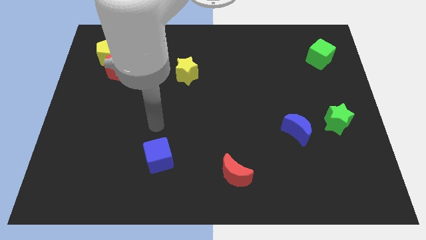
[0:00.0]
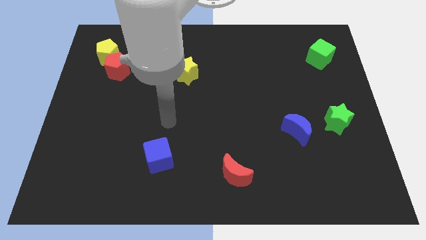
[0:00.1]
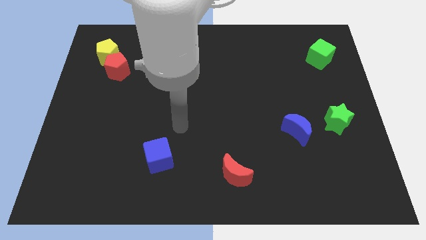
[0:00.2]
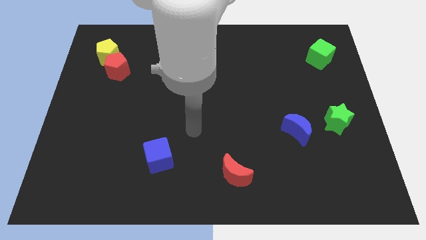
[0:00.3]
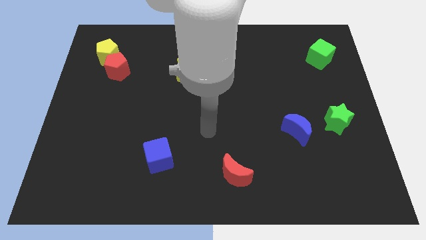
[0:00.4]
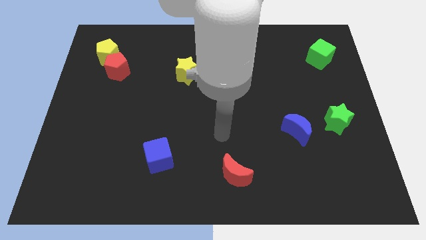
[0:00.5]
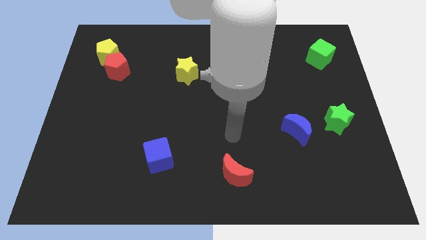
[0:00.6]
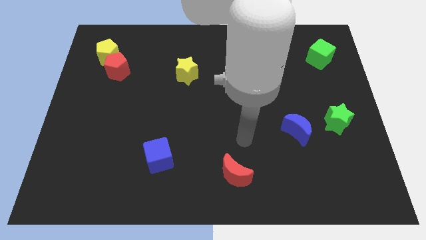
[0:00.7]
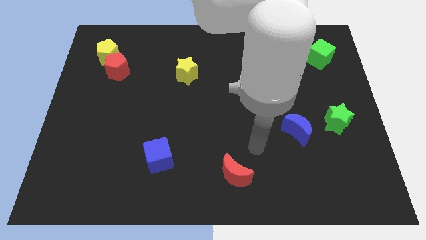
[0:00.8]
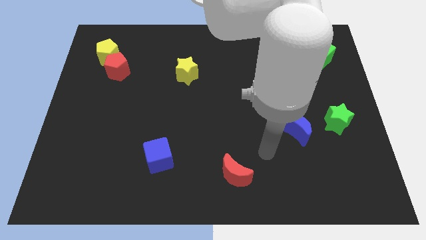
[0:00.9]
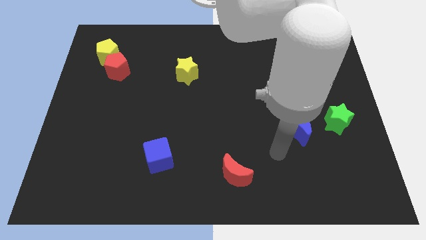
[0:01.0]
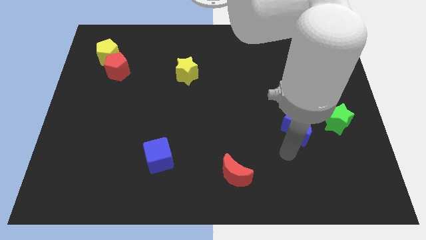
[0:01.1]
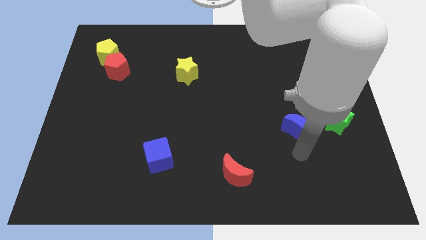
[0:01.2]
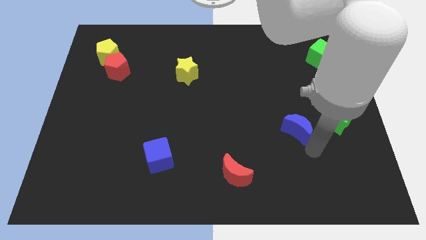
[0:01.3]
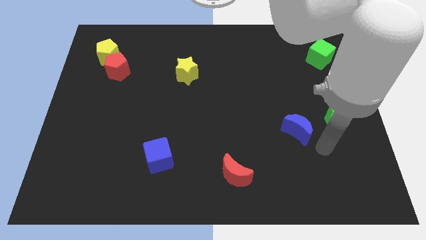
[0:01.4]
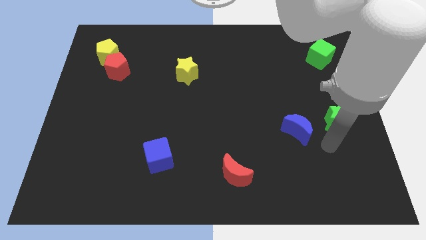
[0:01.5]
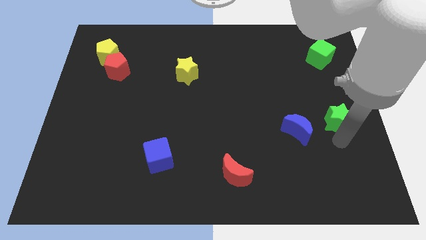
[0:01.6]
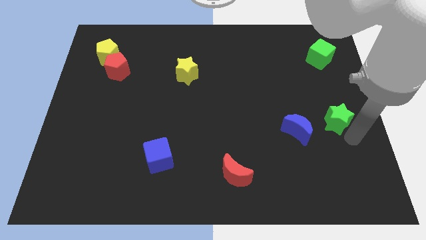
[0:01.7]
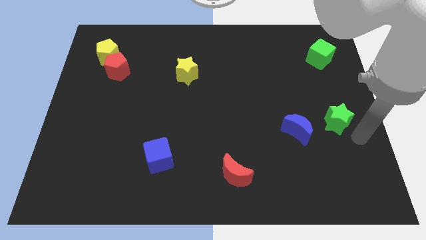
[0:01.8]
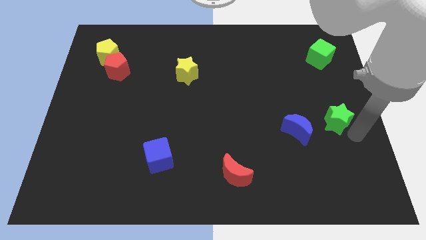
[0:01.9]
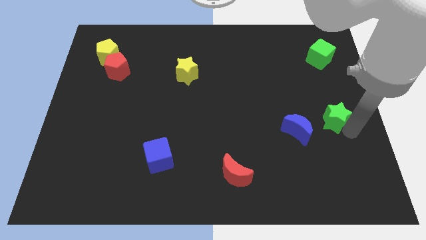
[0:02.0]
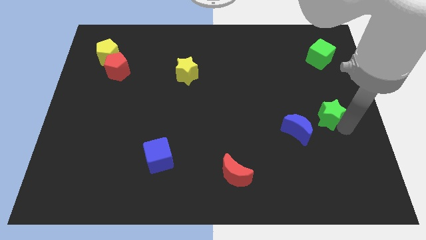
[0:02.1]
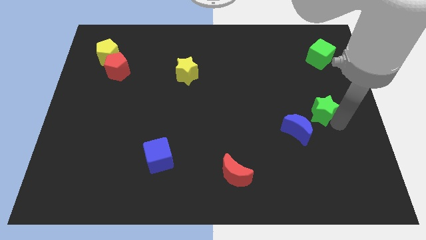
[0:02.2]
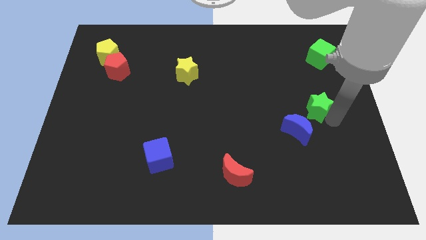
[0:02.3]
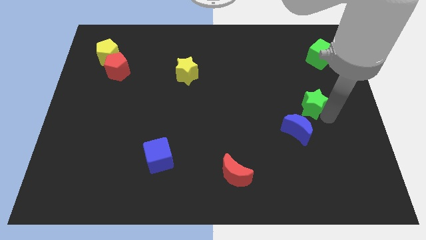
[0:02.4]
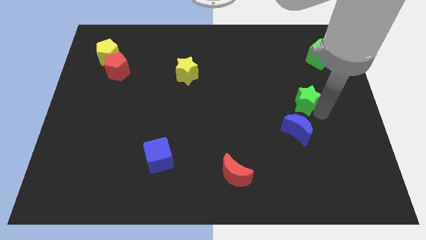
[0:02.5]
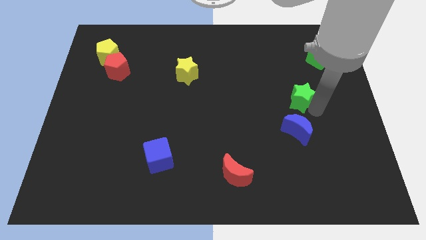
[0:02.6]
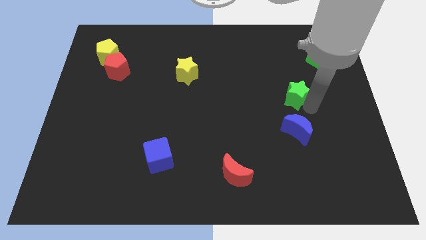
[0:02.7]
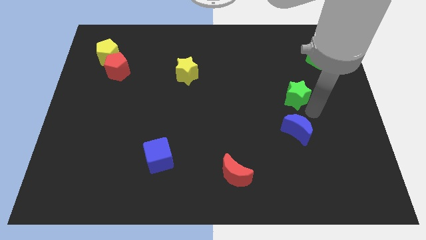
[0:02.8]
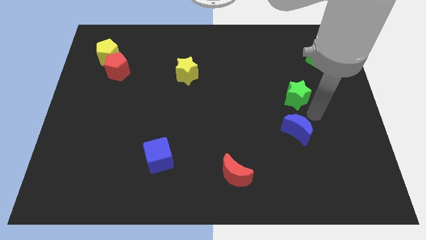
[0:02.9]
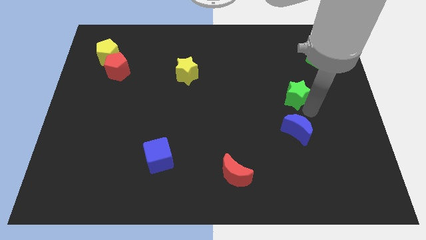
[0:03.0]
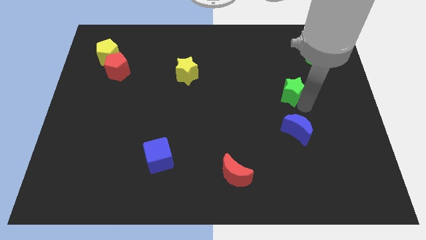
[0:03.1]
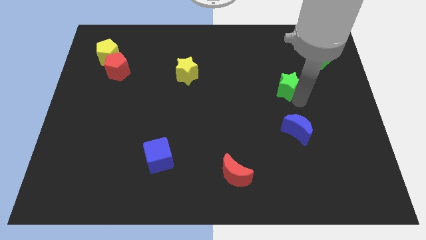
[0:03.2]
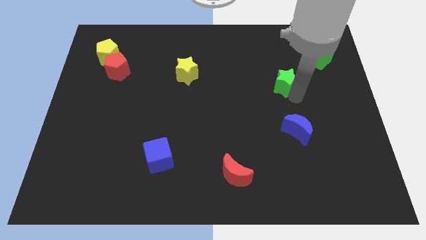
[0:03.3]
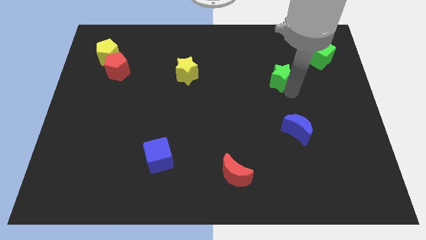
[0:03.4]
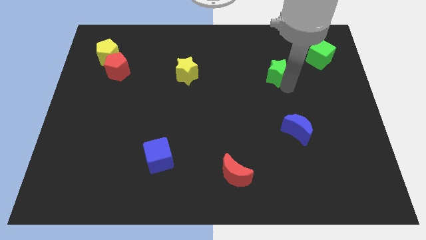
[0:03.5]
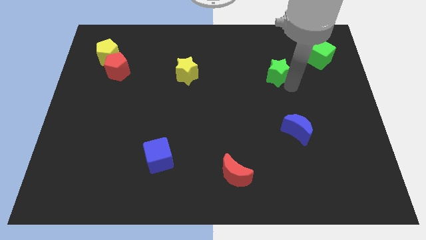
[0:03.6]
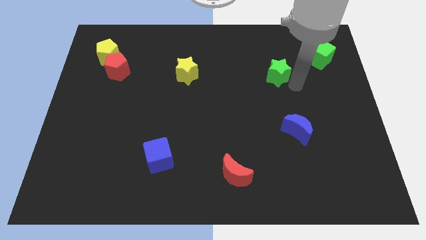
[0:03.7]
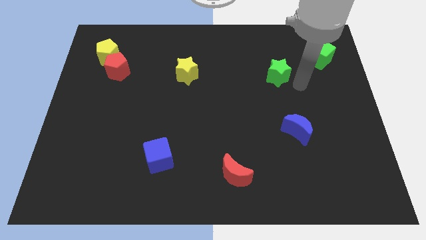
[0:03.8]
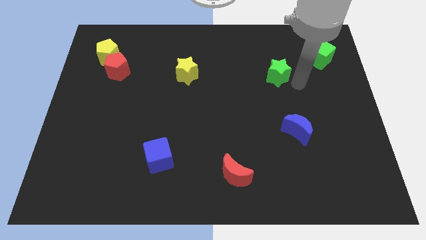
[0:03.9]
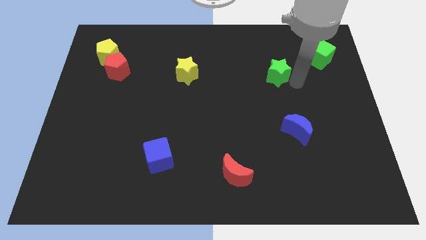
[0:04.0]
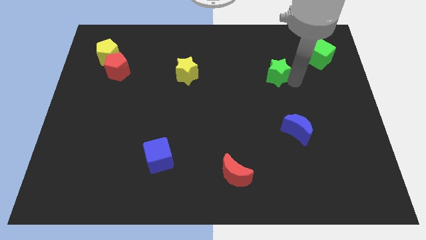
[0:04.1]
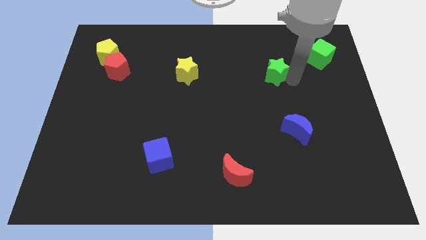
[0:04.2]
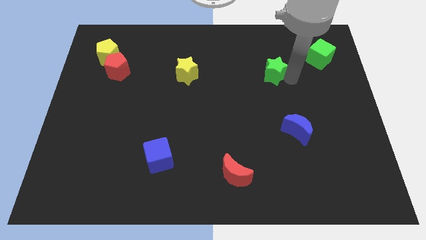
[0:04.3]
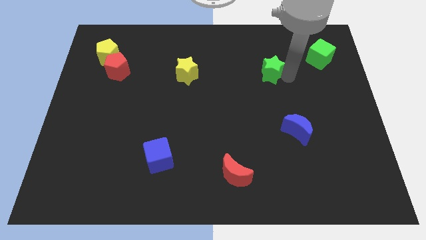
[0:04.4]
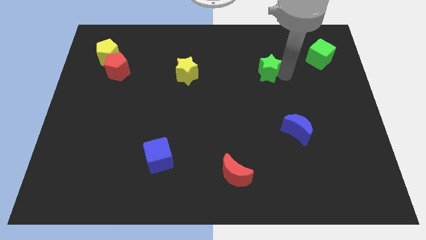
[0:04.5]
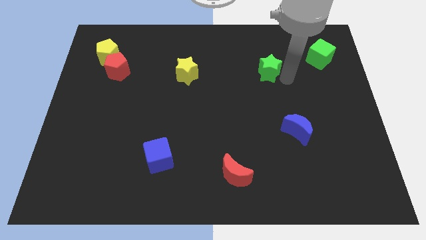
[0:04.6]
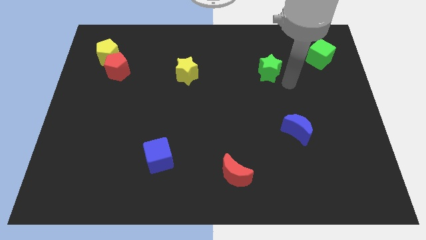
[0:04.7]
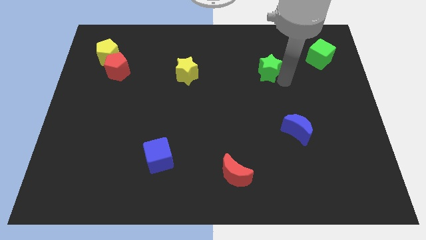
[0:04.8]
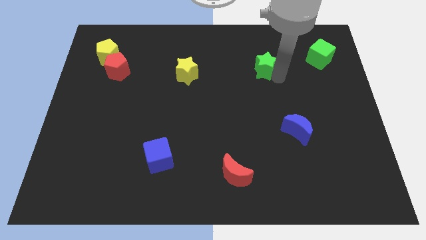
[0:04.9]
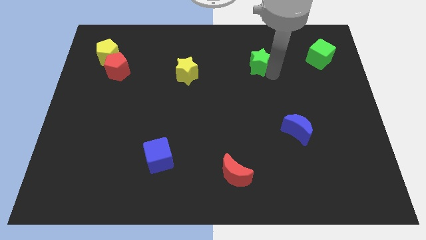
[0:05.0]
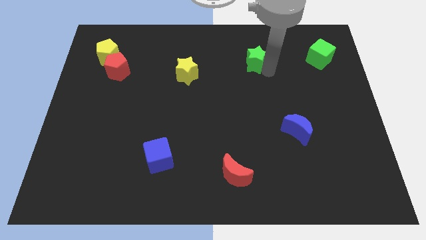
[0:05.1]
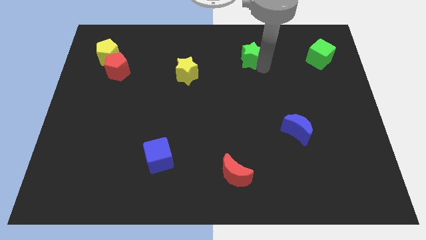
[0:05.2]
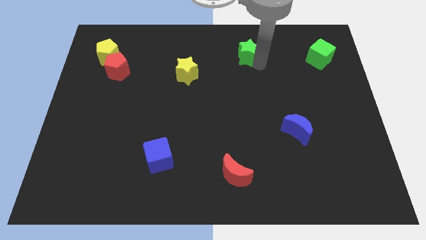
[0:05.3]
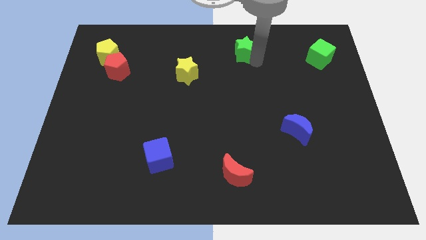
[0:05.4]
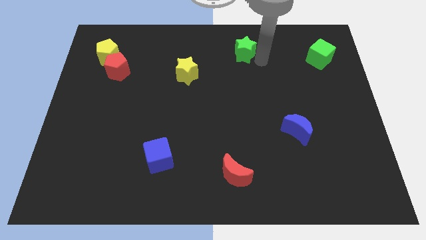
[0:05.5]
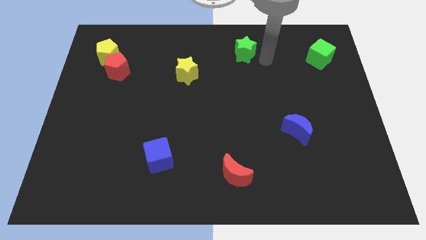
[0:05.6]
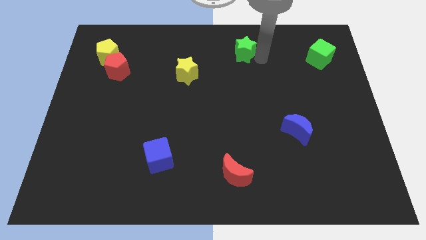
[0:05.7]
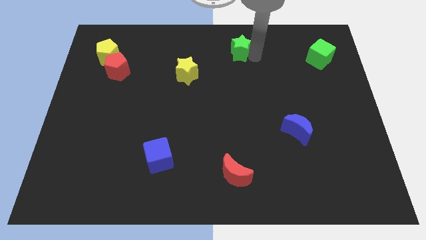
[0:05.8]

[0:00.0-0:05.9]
put the green star to the top side

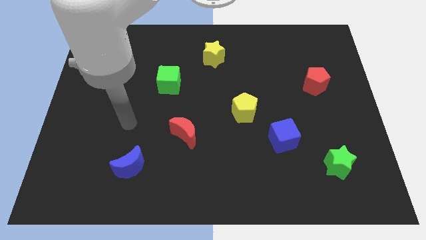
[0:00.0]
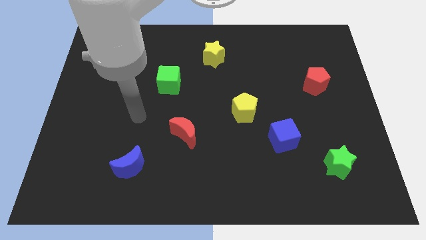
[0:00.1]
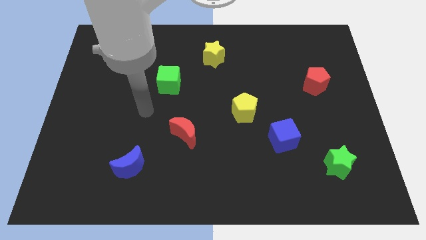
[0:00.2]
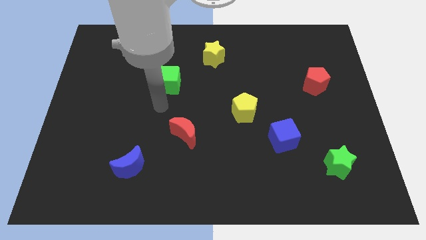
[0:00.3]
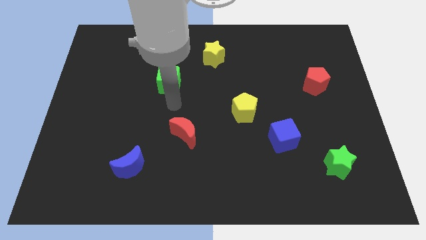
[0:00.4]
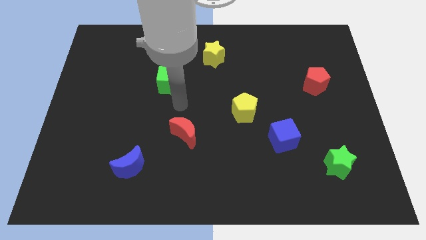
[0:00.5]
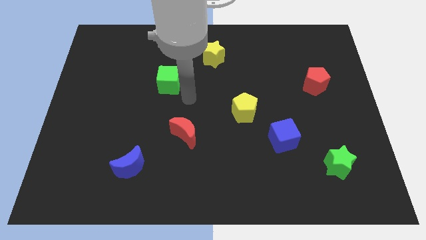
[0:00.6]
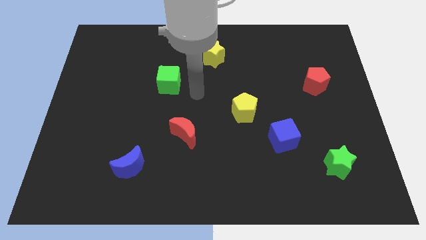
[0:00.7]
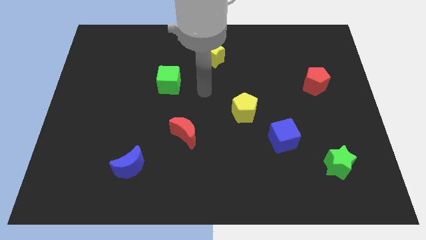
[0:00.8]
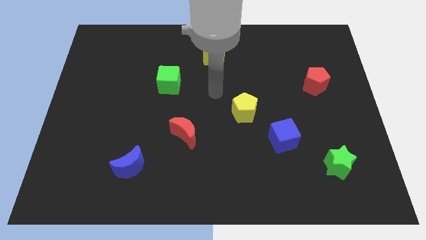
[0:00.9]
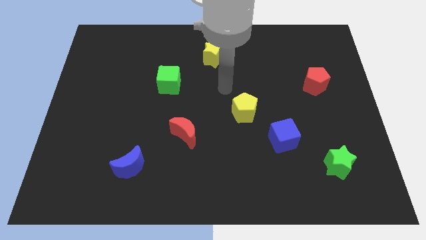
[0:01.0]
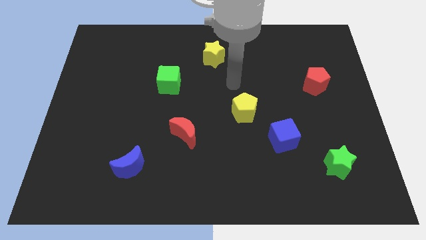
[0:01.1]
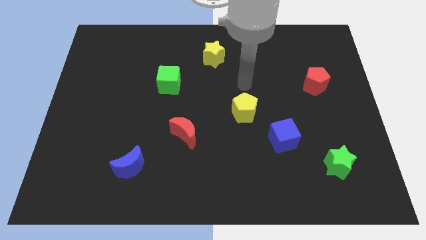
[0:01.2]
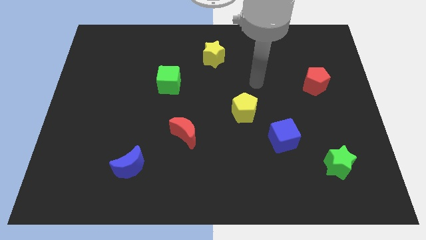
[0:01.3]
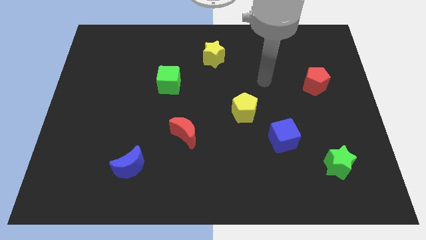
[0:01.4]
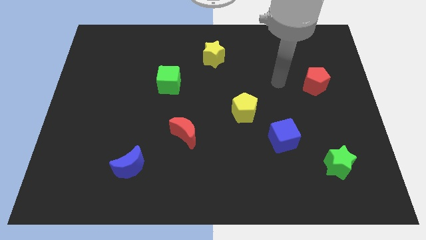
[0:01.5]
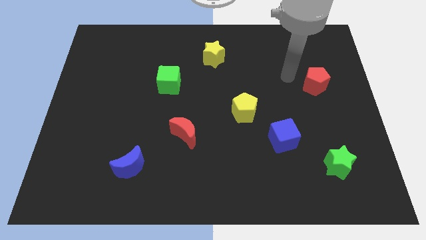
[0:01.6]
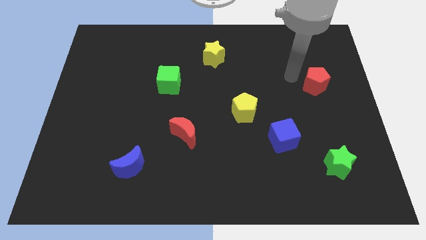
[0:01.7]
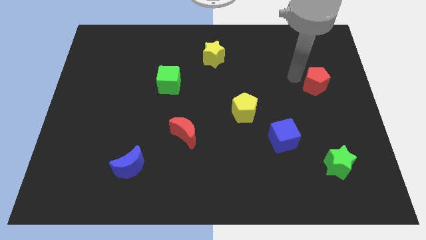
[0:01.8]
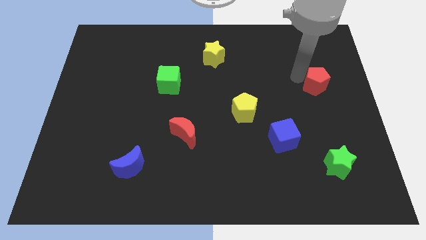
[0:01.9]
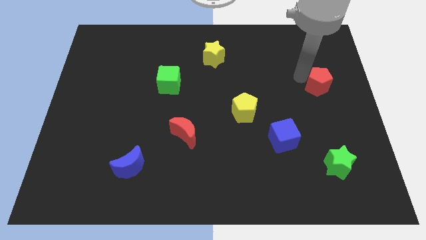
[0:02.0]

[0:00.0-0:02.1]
put the red pentagon to the right side
